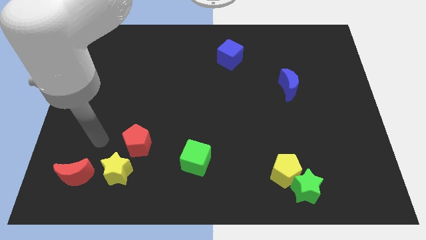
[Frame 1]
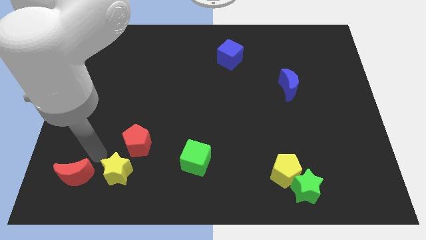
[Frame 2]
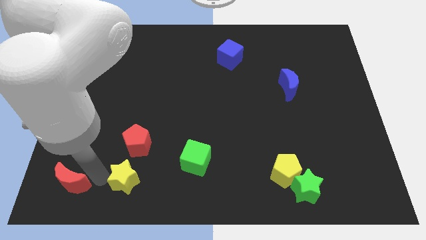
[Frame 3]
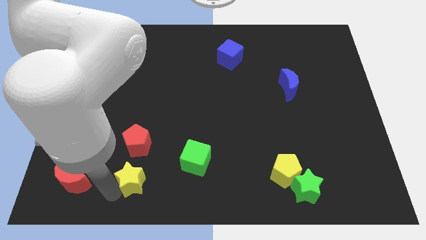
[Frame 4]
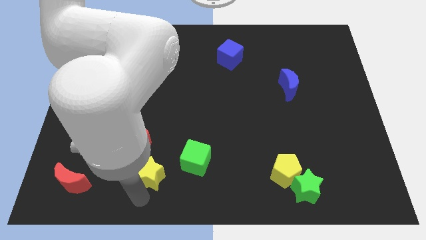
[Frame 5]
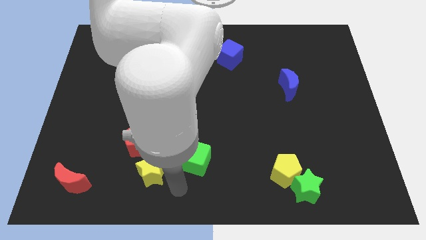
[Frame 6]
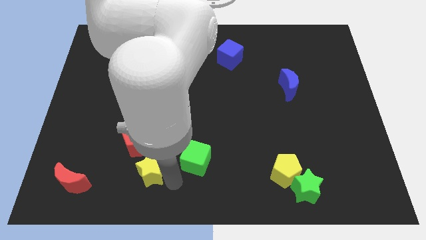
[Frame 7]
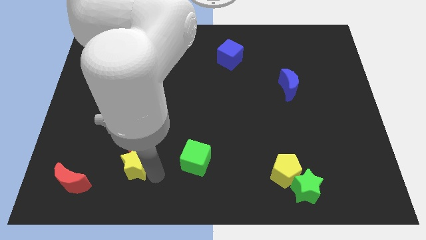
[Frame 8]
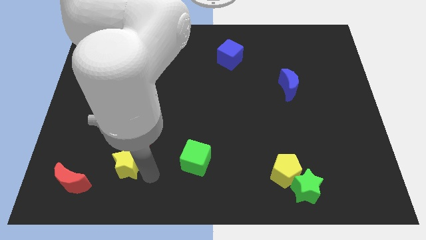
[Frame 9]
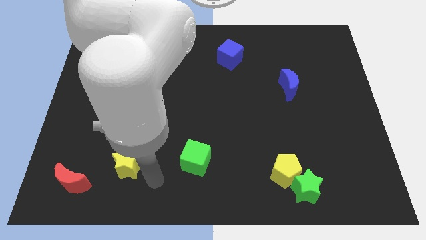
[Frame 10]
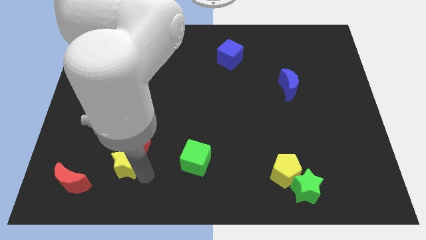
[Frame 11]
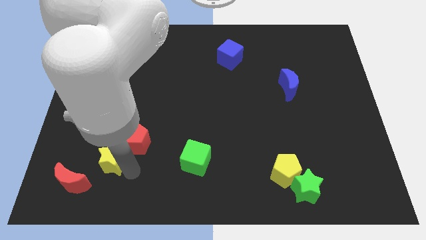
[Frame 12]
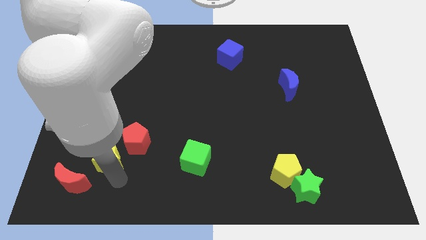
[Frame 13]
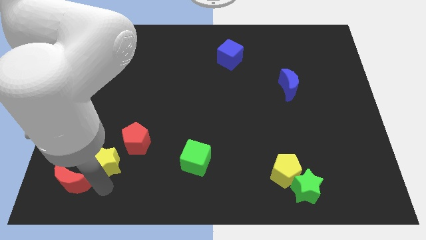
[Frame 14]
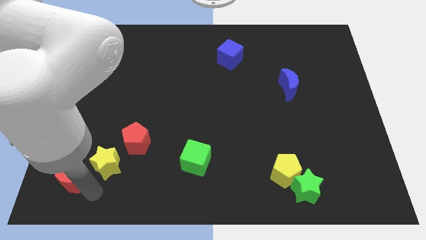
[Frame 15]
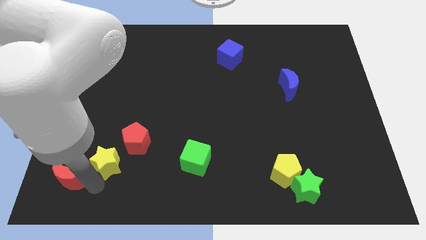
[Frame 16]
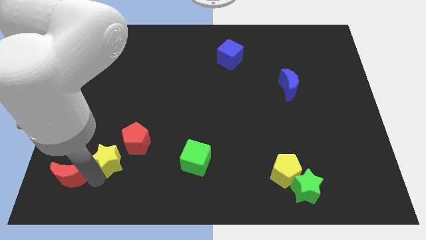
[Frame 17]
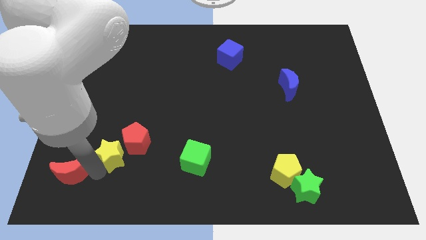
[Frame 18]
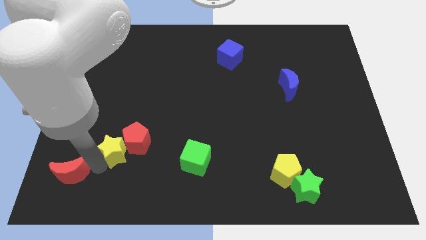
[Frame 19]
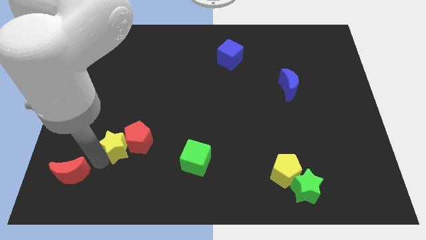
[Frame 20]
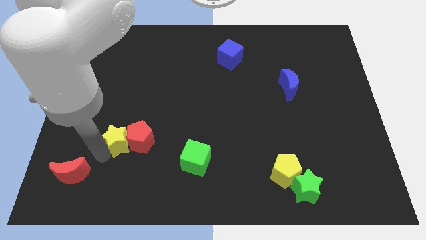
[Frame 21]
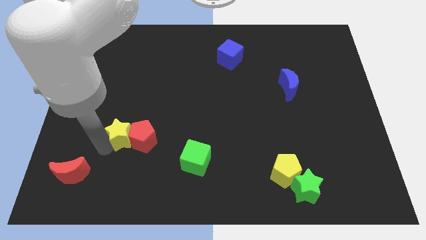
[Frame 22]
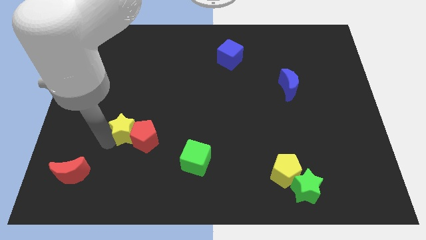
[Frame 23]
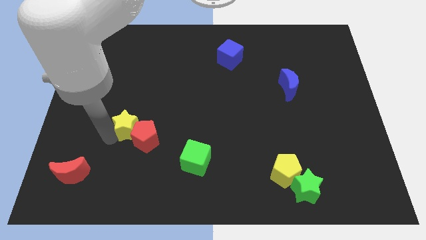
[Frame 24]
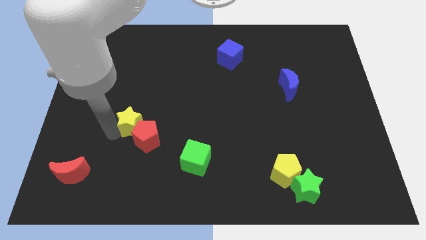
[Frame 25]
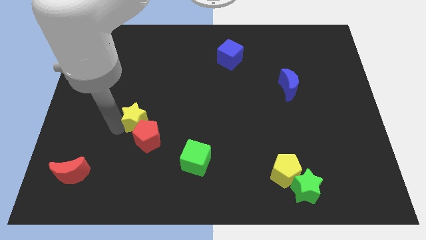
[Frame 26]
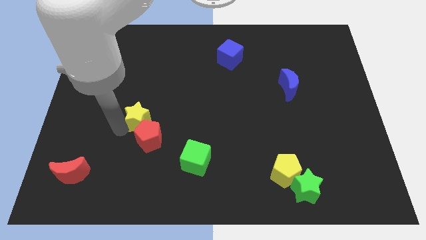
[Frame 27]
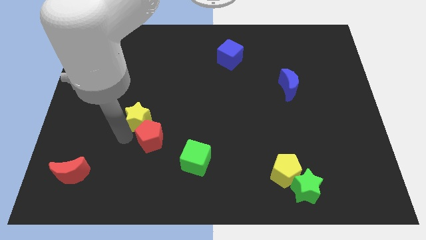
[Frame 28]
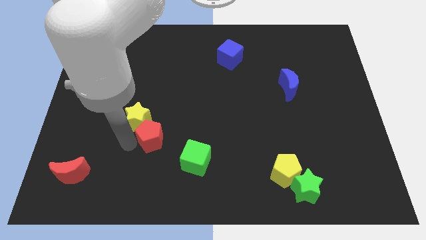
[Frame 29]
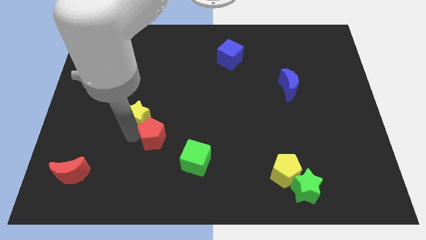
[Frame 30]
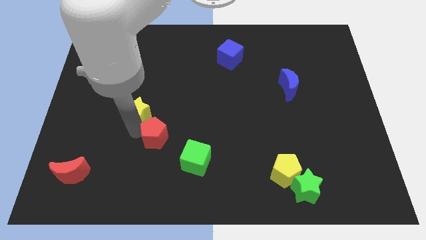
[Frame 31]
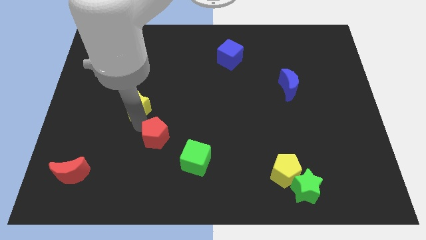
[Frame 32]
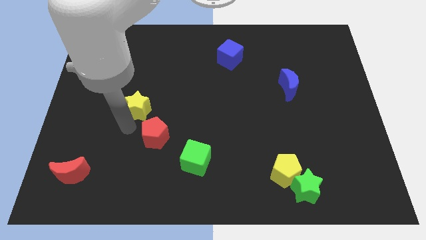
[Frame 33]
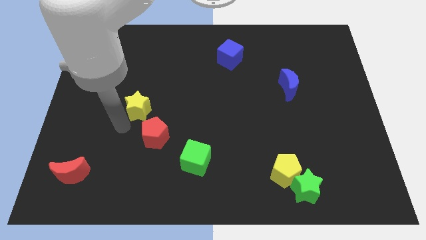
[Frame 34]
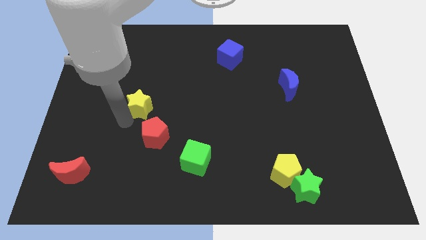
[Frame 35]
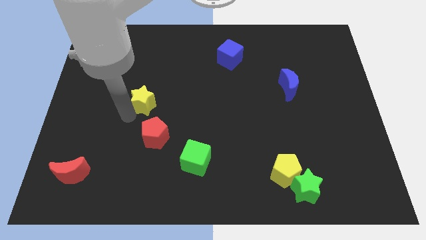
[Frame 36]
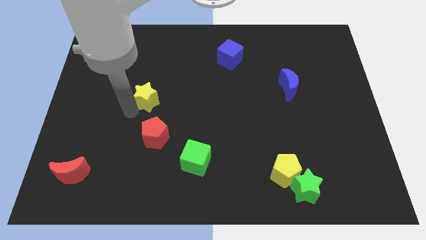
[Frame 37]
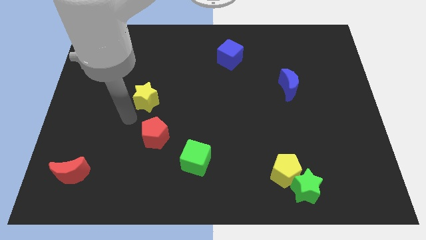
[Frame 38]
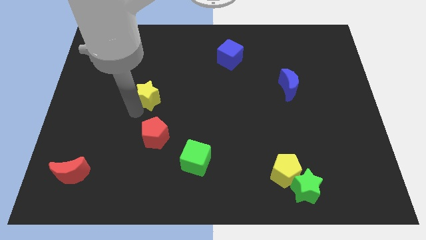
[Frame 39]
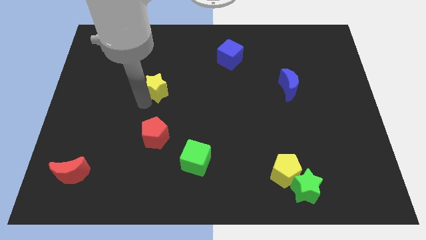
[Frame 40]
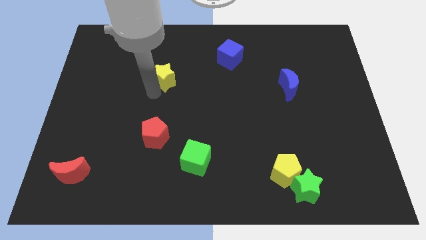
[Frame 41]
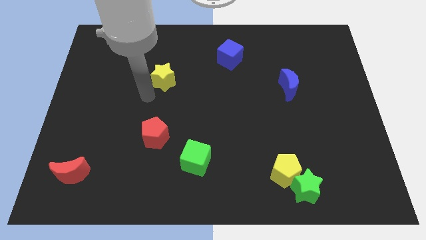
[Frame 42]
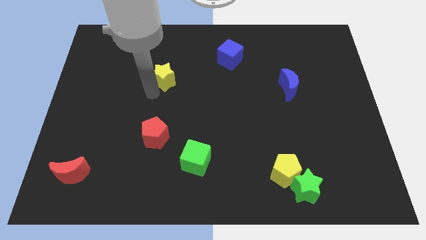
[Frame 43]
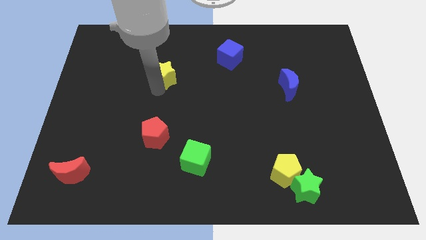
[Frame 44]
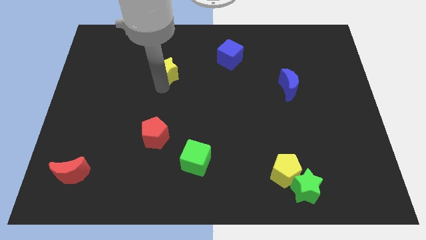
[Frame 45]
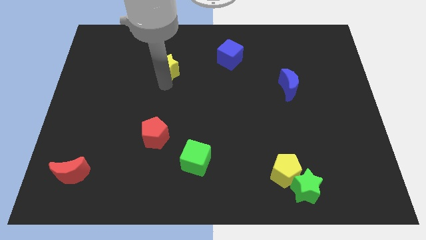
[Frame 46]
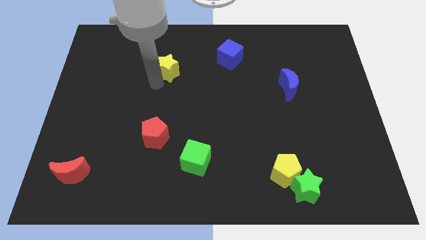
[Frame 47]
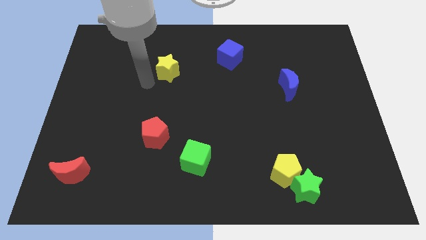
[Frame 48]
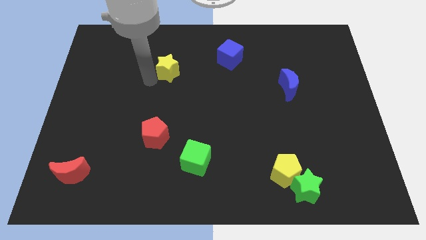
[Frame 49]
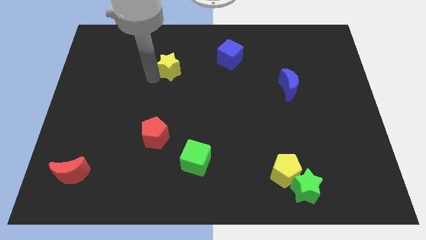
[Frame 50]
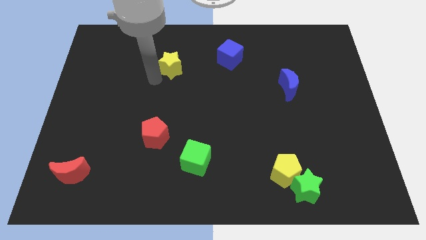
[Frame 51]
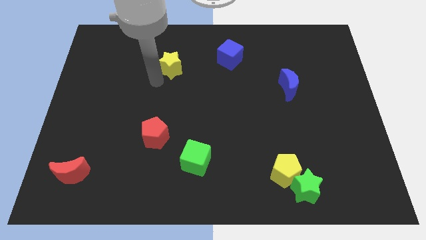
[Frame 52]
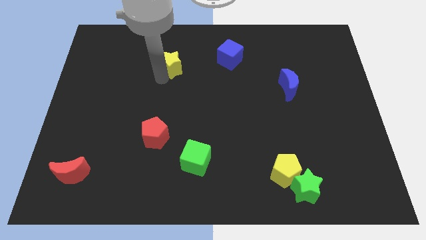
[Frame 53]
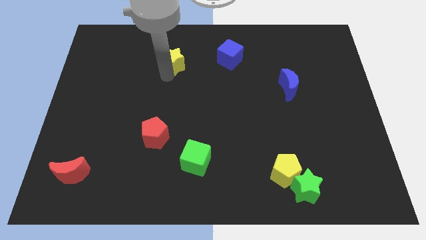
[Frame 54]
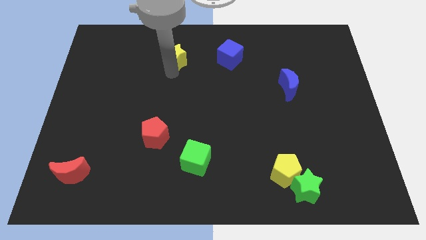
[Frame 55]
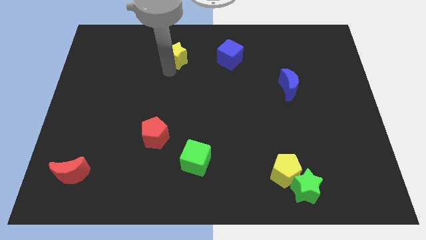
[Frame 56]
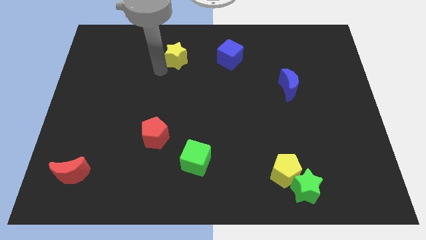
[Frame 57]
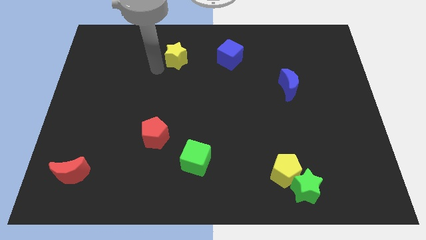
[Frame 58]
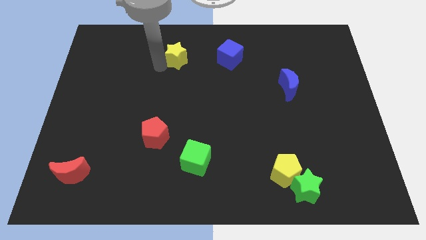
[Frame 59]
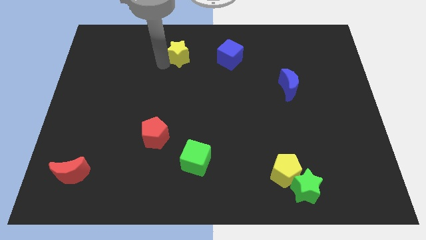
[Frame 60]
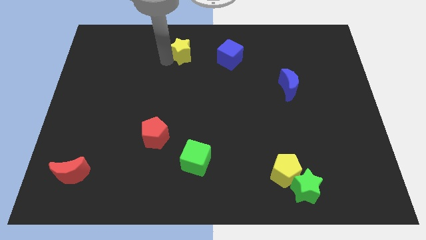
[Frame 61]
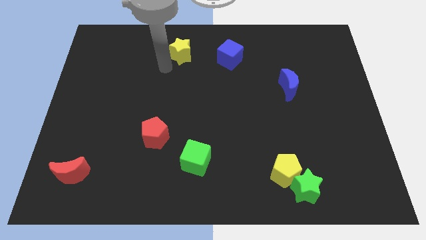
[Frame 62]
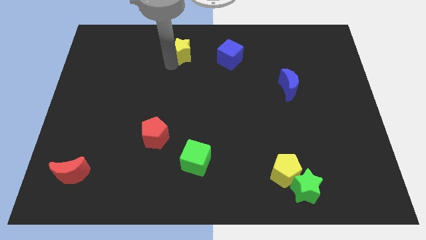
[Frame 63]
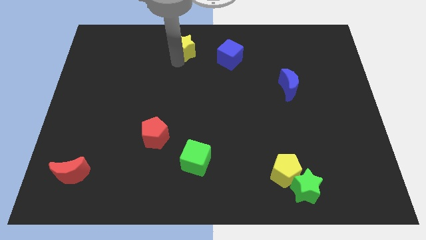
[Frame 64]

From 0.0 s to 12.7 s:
push the yellow star to the towards your base
